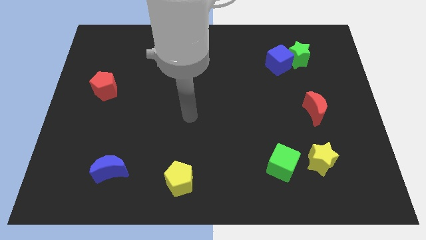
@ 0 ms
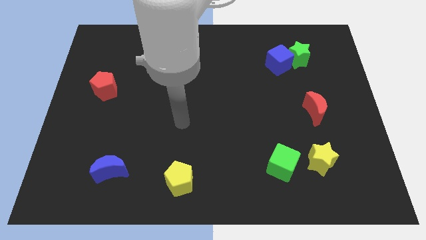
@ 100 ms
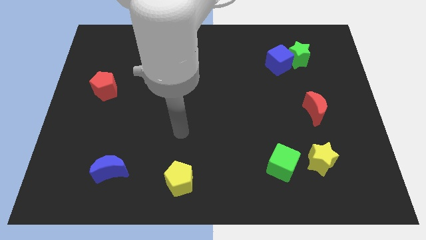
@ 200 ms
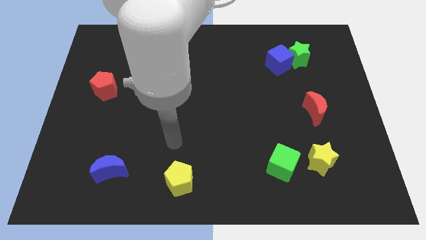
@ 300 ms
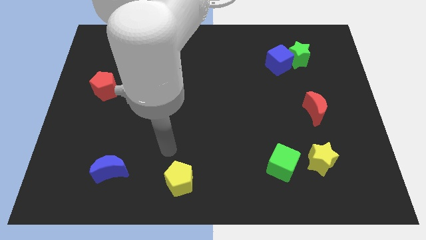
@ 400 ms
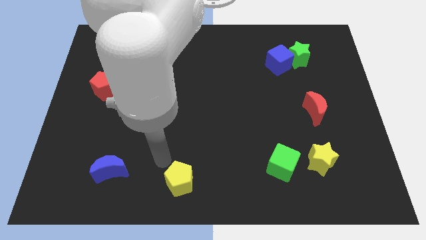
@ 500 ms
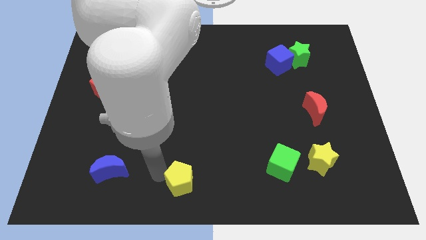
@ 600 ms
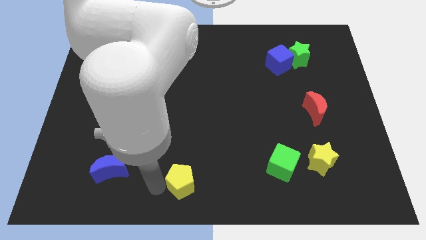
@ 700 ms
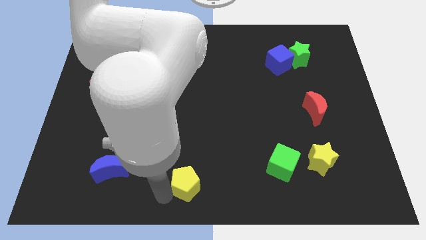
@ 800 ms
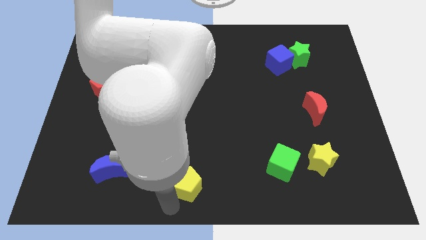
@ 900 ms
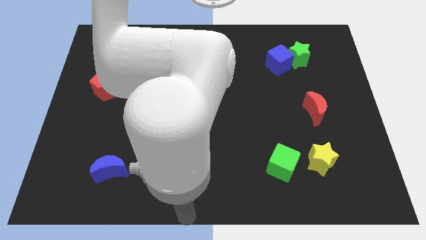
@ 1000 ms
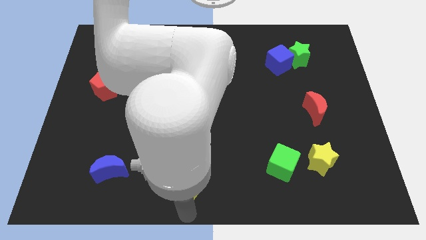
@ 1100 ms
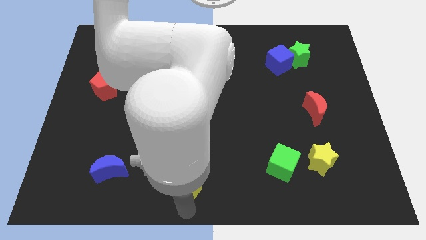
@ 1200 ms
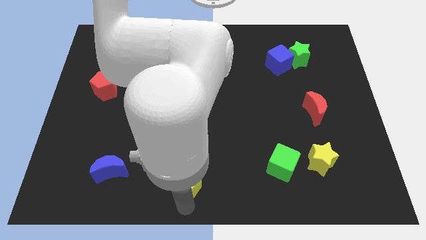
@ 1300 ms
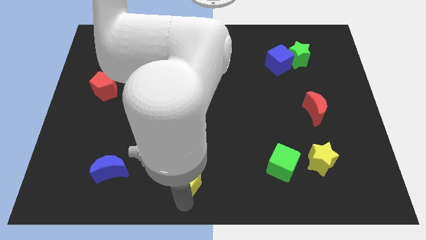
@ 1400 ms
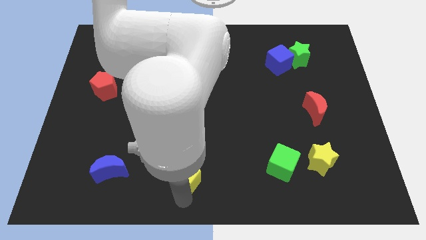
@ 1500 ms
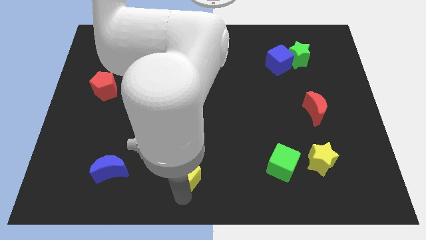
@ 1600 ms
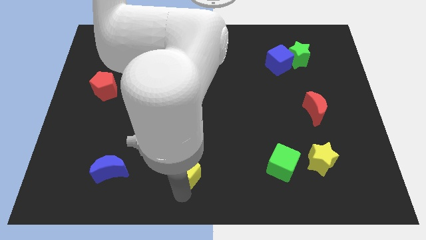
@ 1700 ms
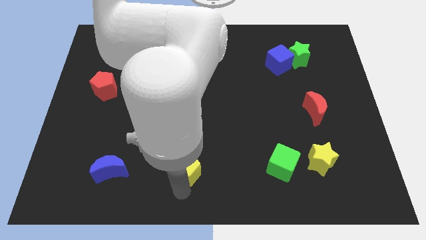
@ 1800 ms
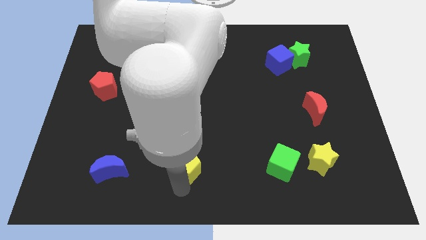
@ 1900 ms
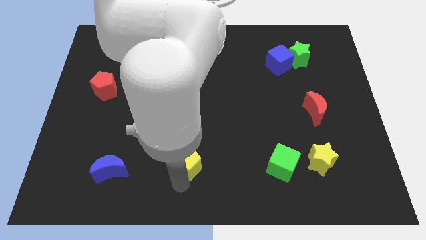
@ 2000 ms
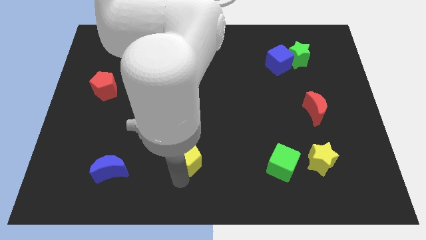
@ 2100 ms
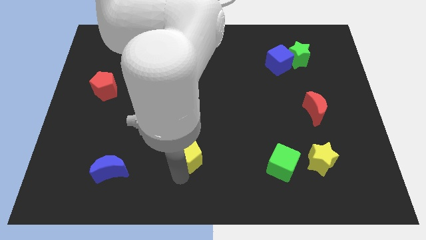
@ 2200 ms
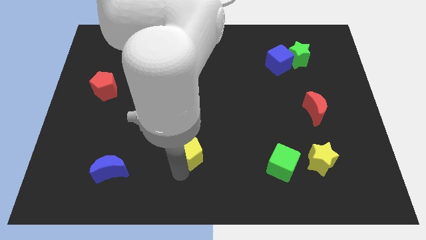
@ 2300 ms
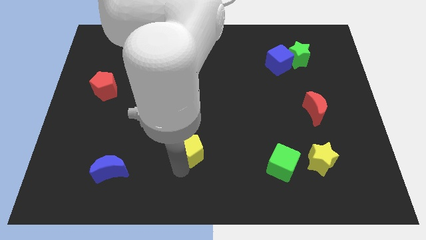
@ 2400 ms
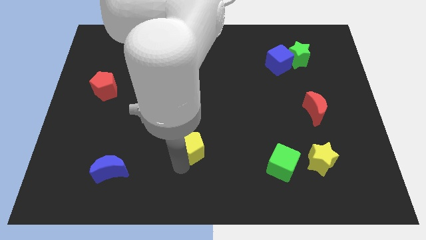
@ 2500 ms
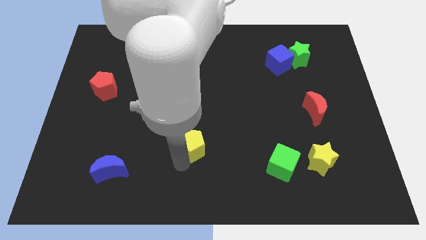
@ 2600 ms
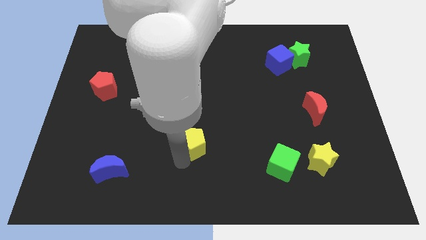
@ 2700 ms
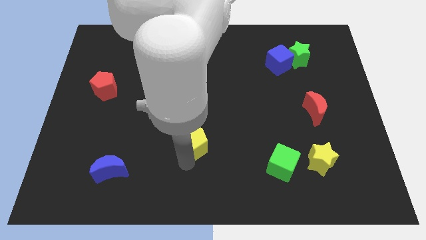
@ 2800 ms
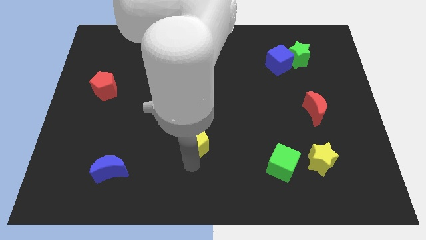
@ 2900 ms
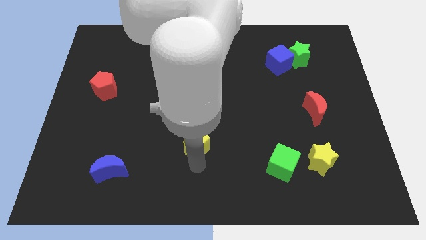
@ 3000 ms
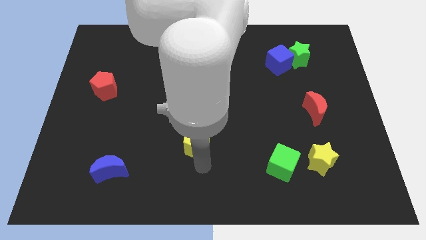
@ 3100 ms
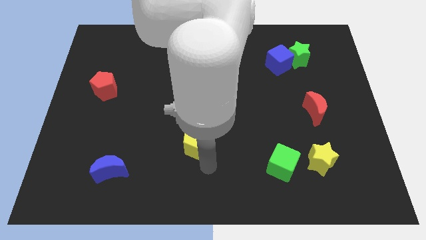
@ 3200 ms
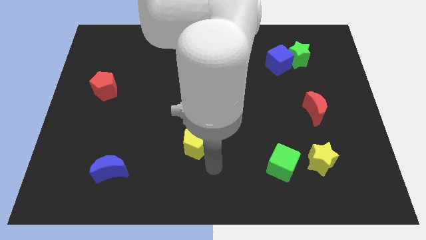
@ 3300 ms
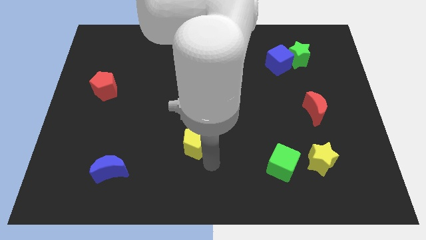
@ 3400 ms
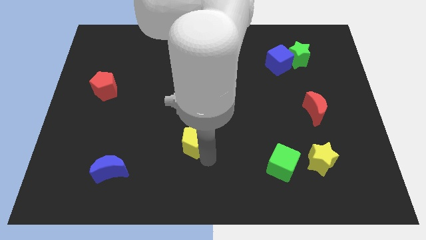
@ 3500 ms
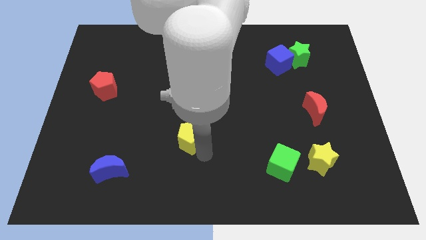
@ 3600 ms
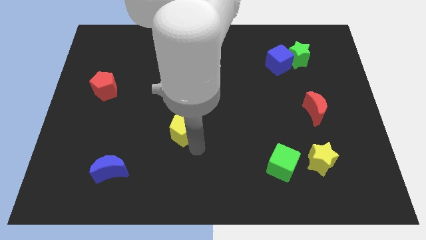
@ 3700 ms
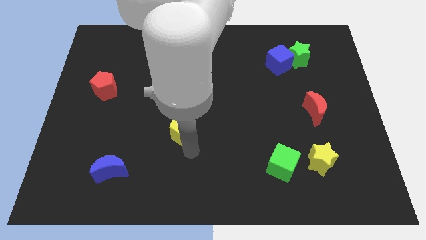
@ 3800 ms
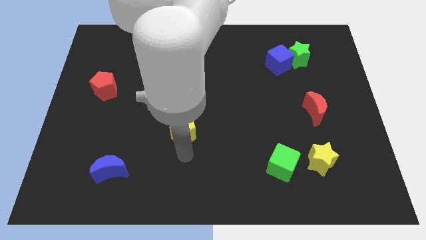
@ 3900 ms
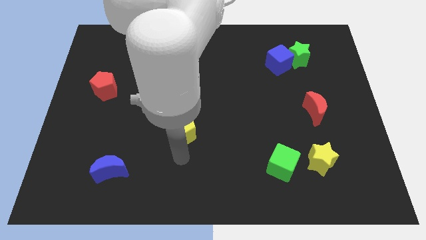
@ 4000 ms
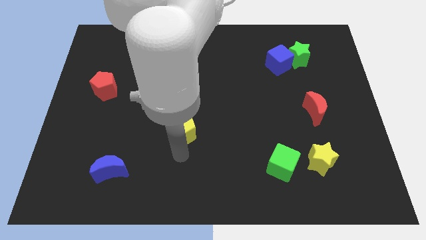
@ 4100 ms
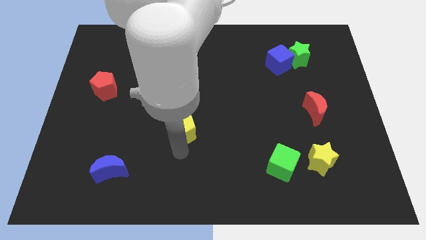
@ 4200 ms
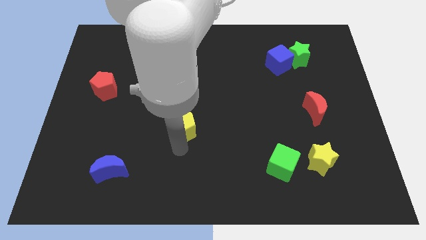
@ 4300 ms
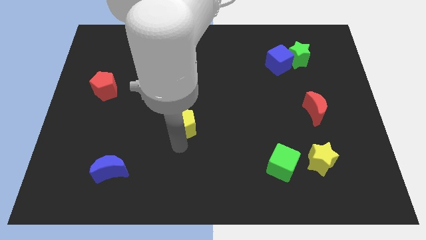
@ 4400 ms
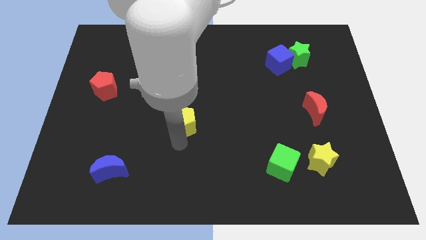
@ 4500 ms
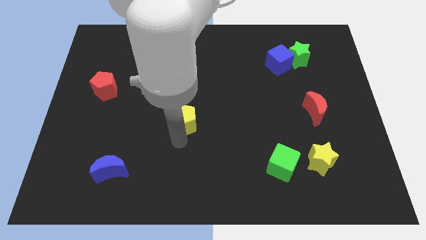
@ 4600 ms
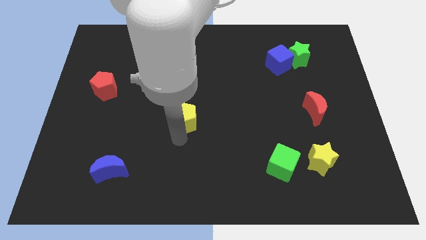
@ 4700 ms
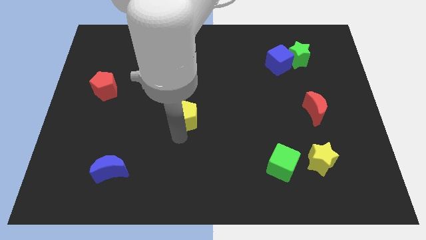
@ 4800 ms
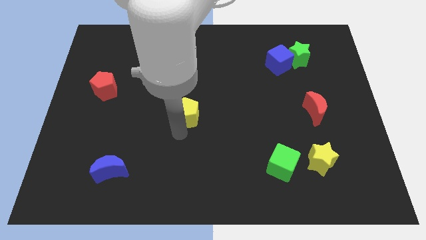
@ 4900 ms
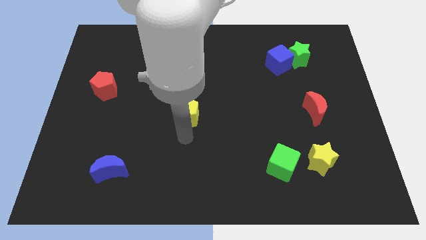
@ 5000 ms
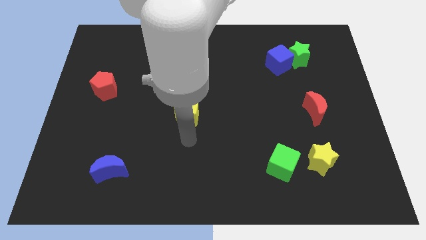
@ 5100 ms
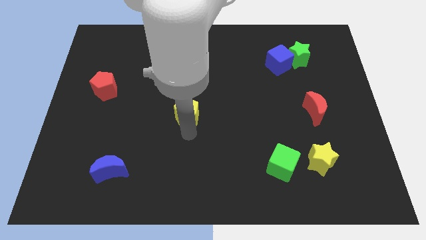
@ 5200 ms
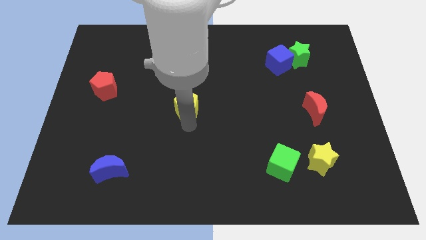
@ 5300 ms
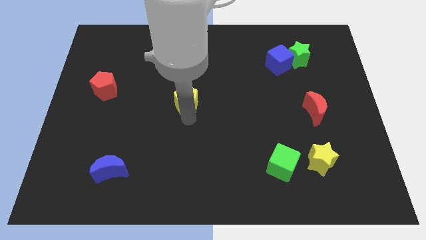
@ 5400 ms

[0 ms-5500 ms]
push the yellow pentagon upwards

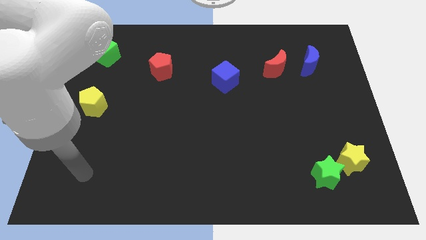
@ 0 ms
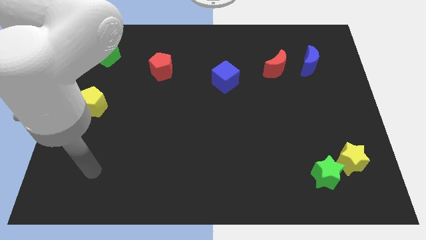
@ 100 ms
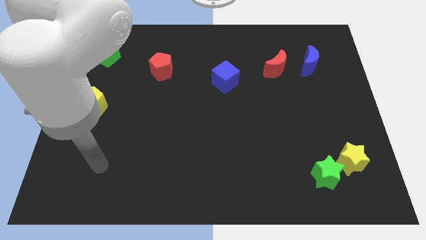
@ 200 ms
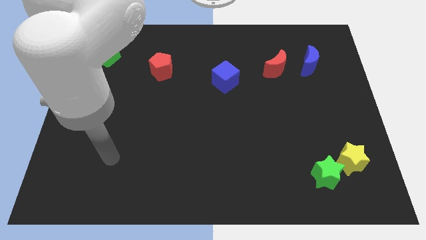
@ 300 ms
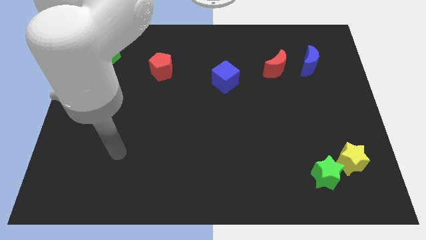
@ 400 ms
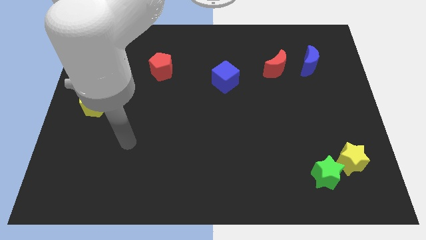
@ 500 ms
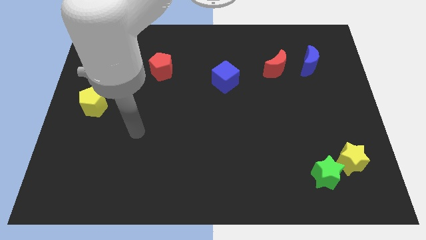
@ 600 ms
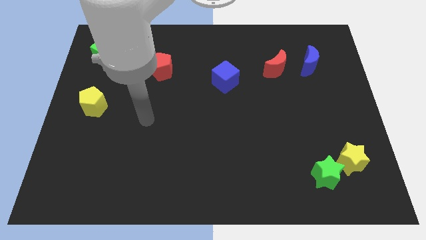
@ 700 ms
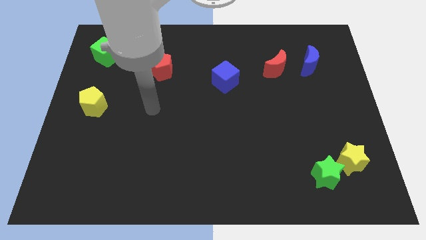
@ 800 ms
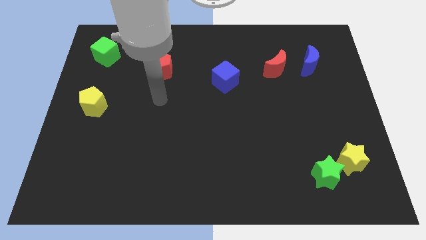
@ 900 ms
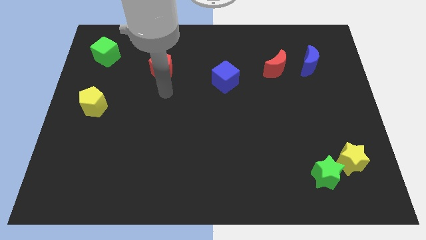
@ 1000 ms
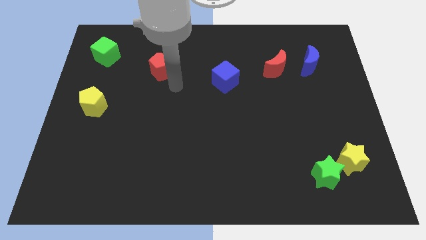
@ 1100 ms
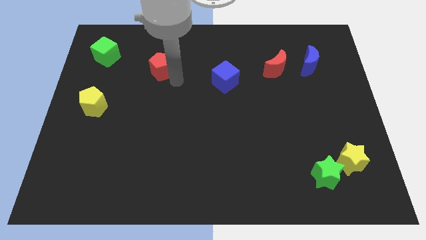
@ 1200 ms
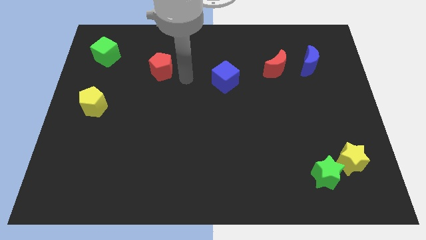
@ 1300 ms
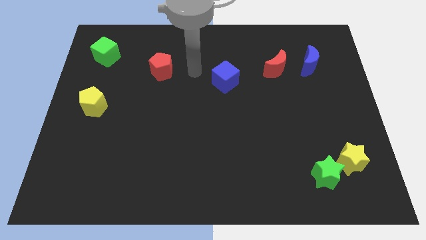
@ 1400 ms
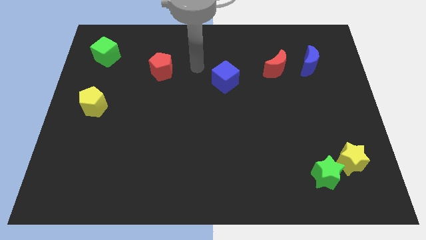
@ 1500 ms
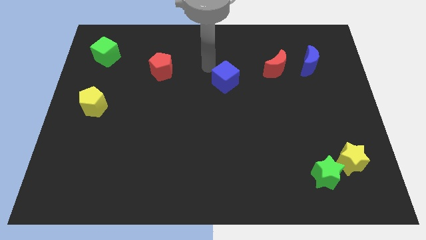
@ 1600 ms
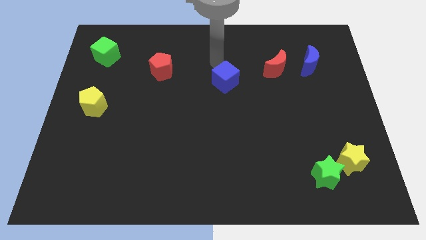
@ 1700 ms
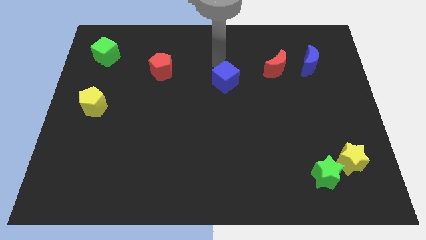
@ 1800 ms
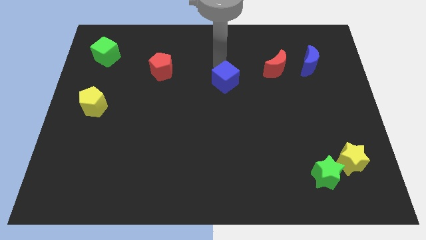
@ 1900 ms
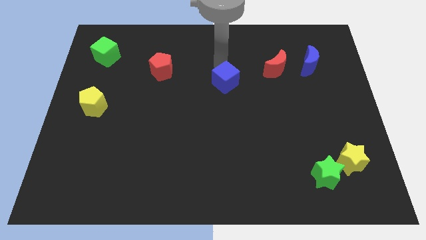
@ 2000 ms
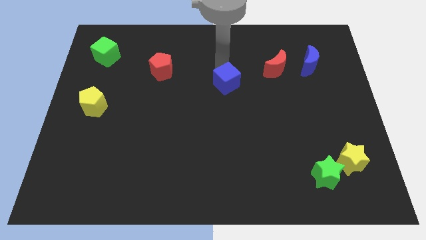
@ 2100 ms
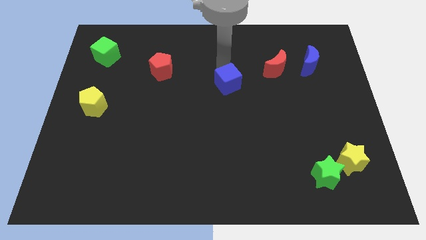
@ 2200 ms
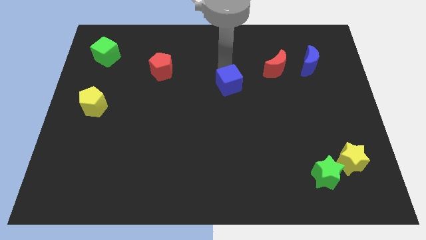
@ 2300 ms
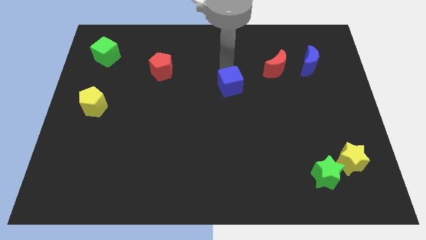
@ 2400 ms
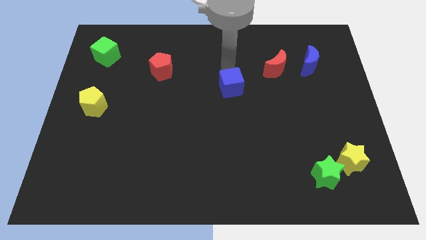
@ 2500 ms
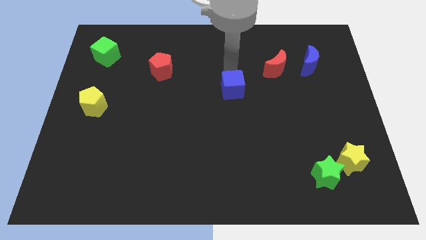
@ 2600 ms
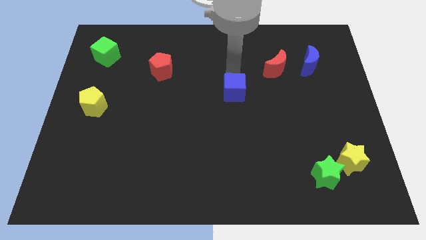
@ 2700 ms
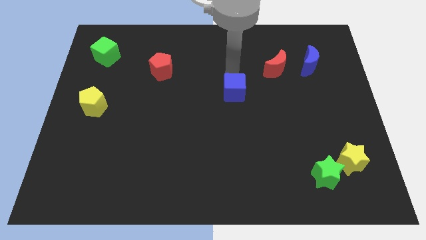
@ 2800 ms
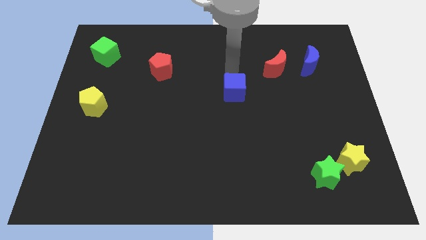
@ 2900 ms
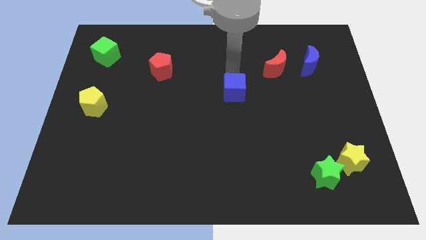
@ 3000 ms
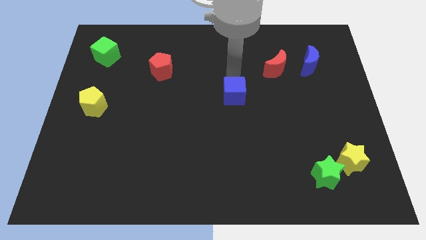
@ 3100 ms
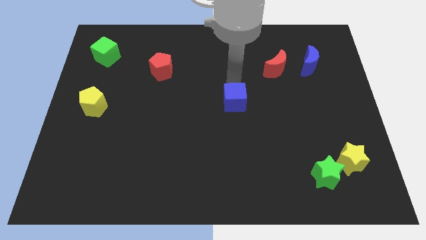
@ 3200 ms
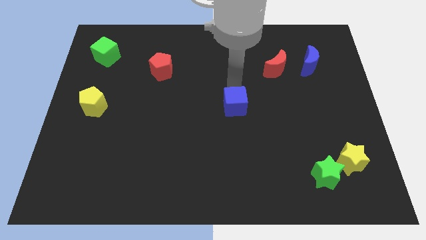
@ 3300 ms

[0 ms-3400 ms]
slightly slide the blue cube downwards
